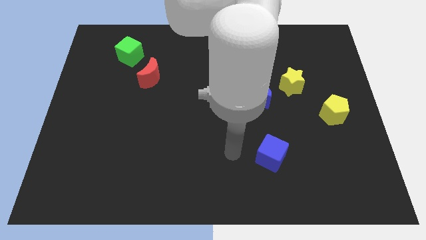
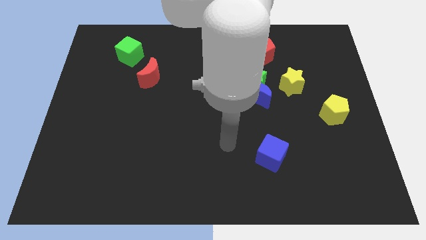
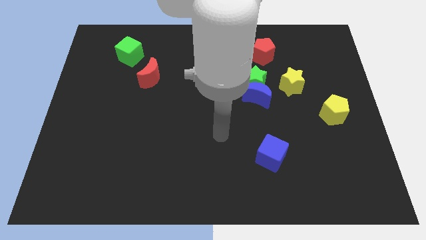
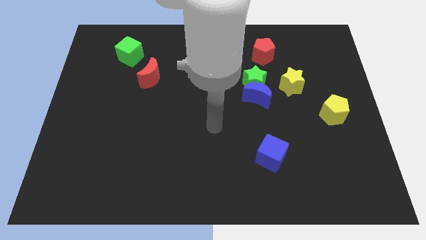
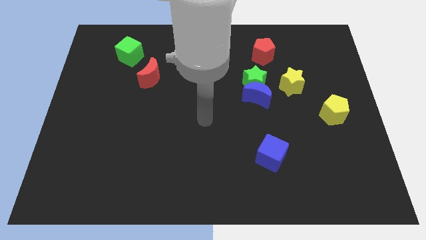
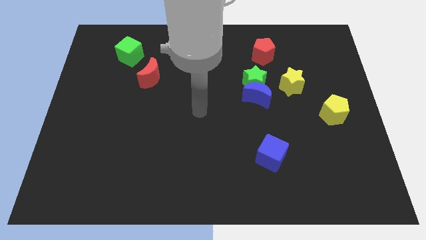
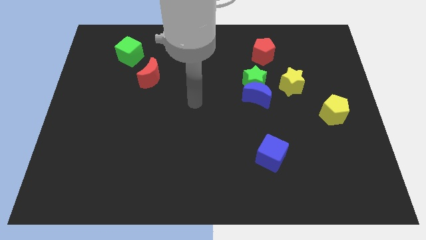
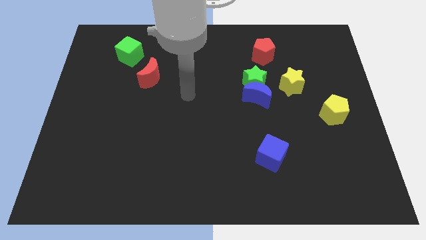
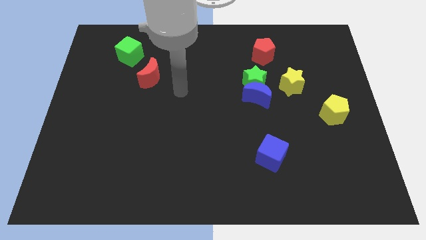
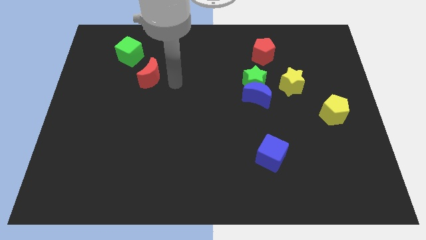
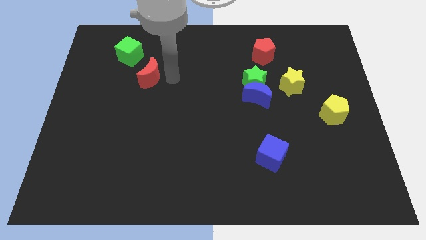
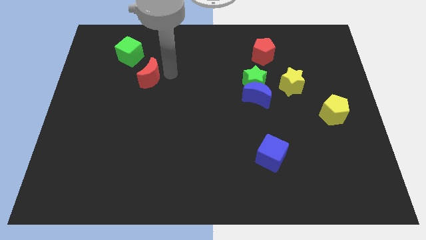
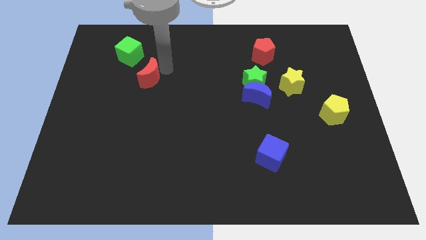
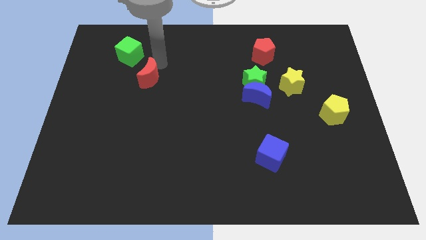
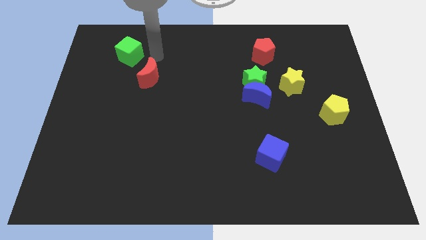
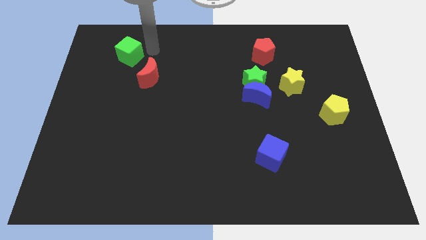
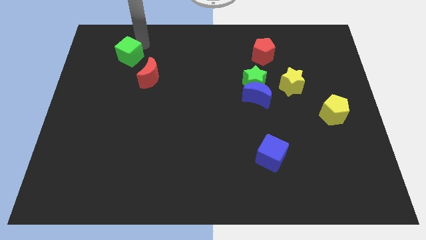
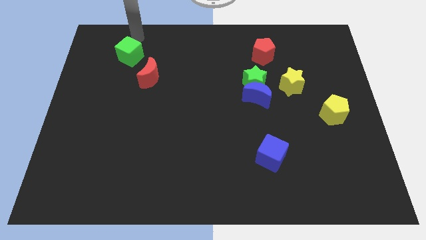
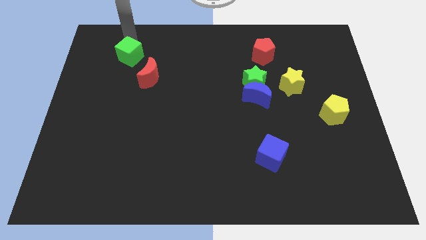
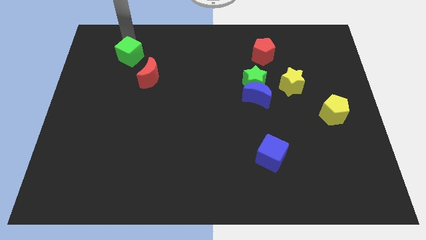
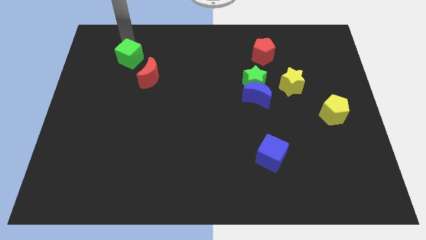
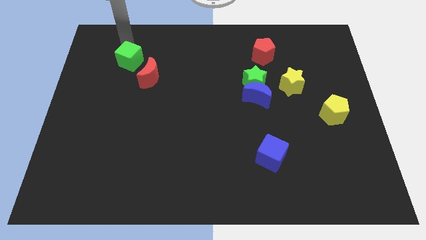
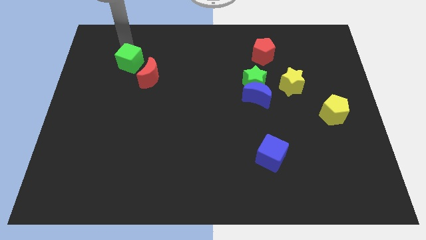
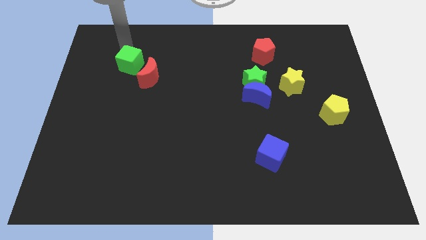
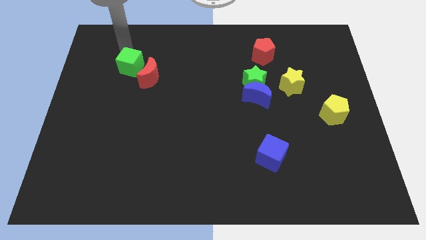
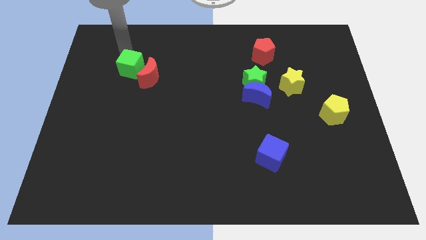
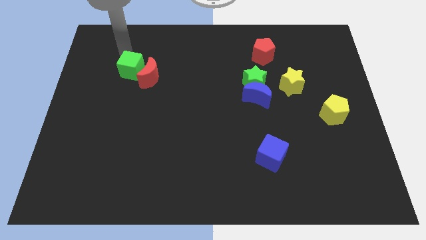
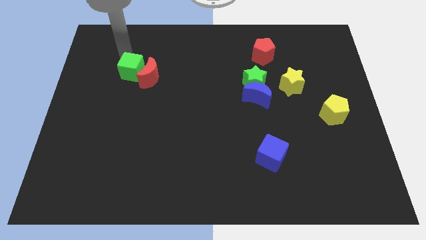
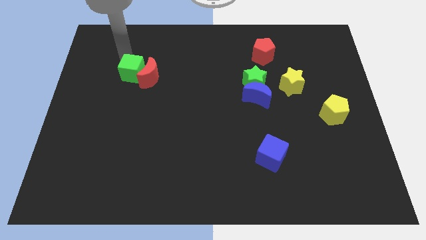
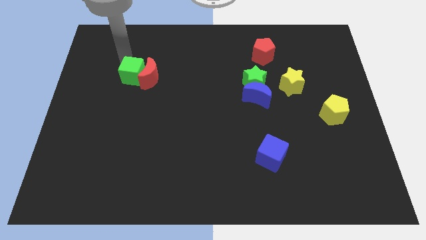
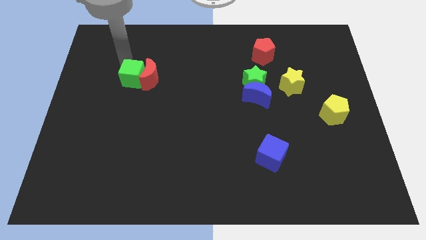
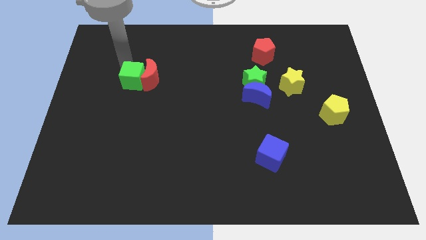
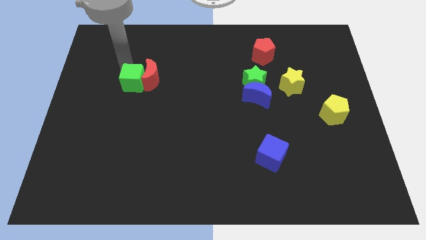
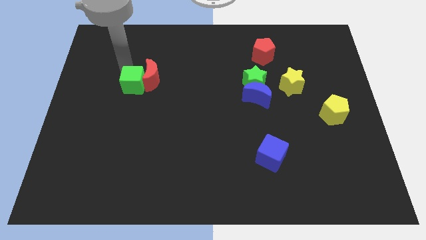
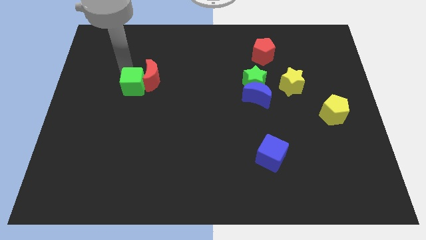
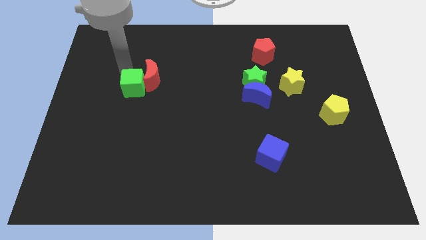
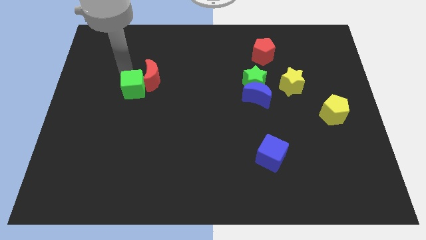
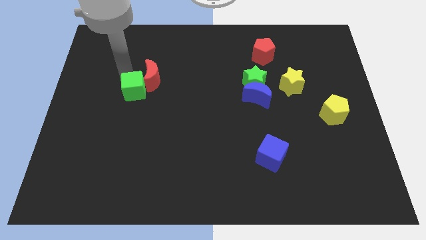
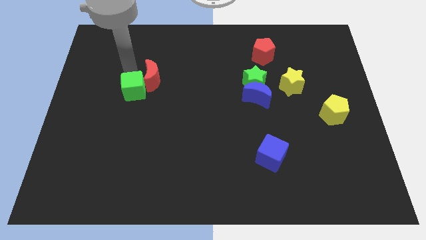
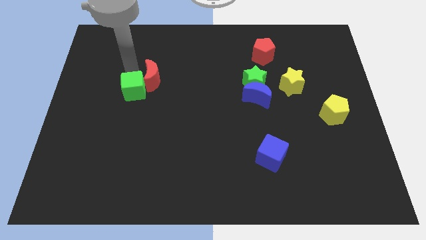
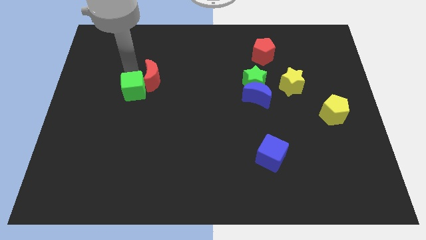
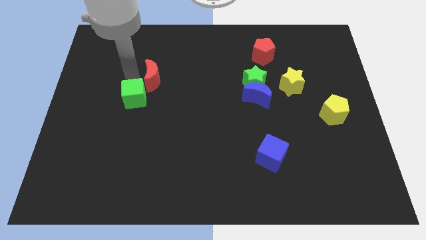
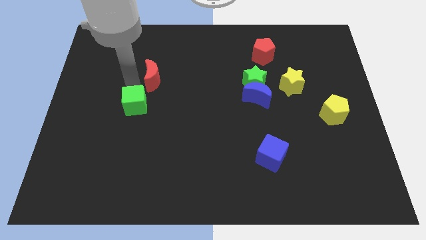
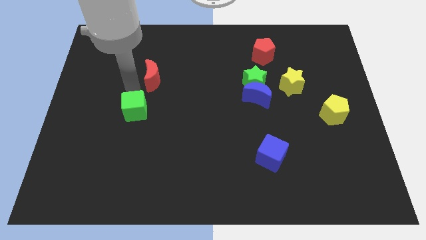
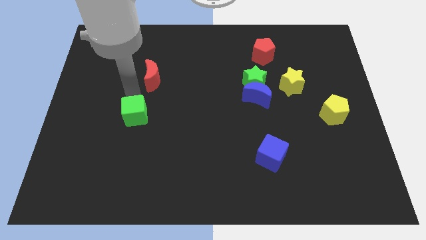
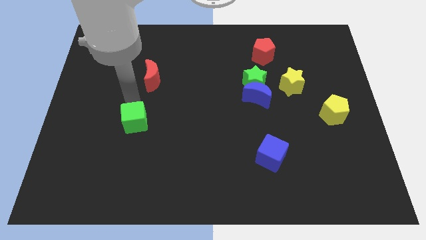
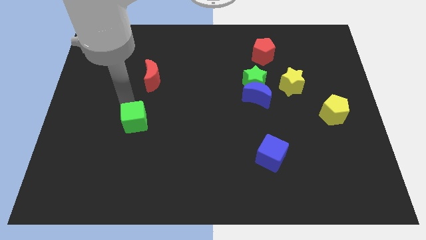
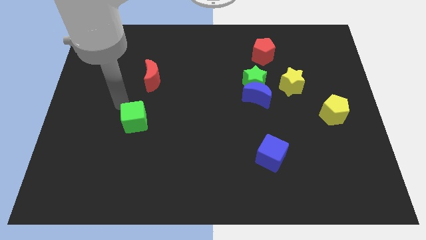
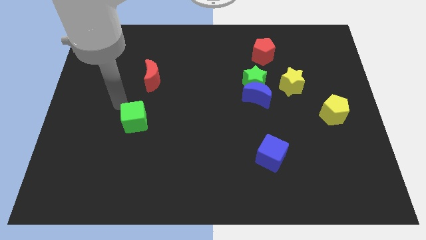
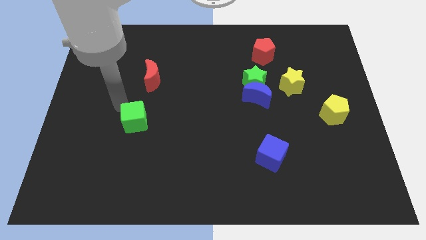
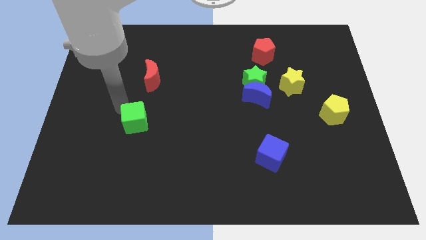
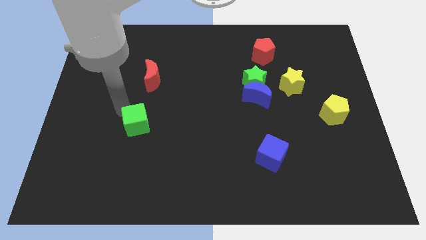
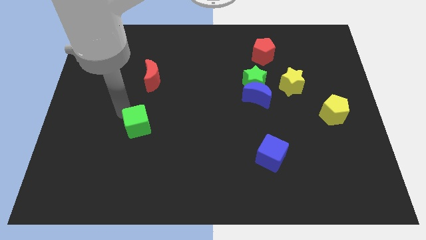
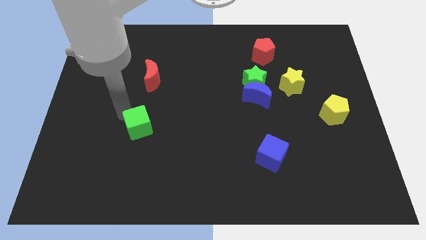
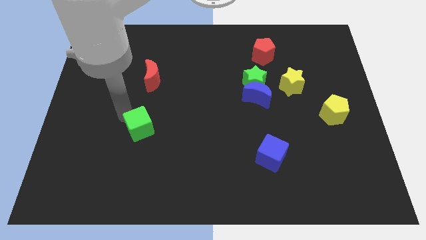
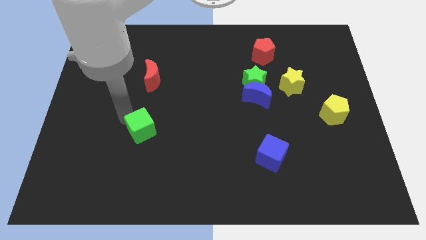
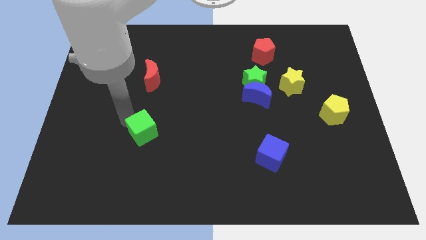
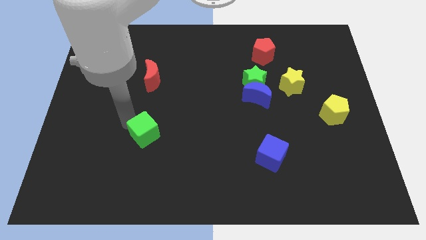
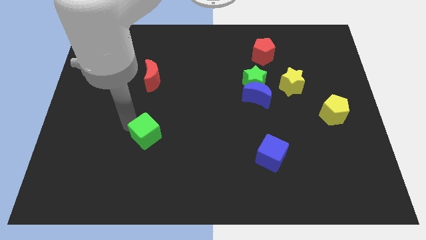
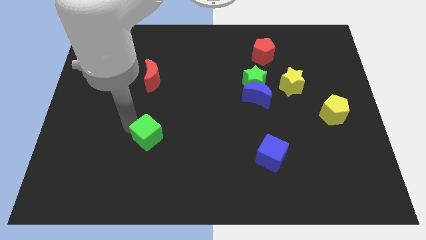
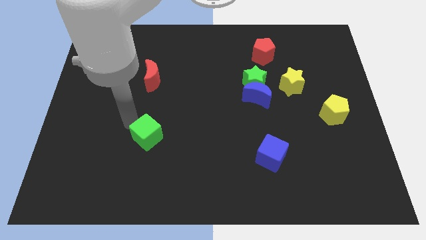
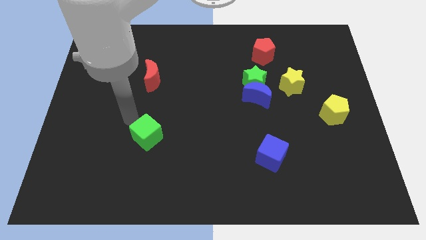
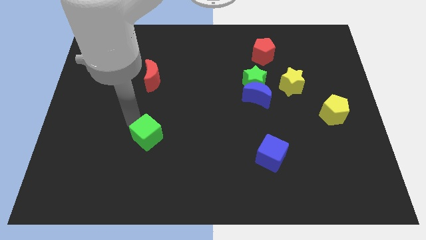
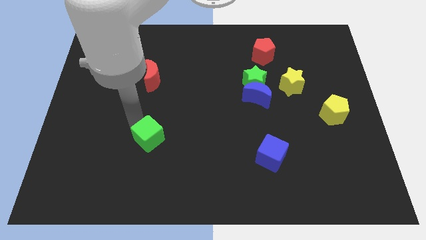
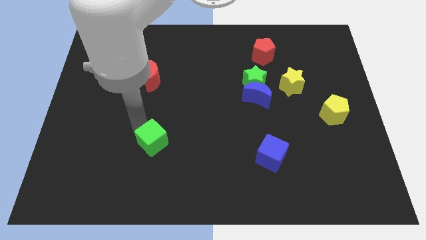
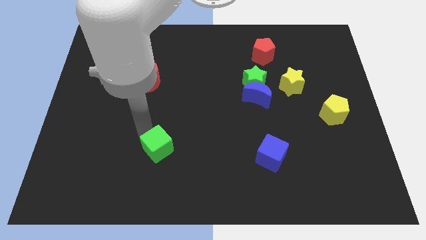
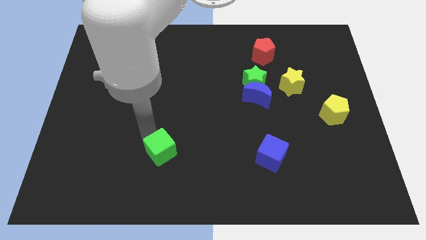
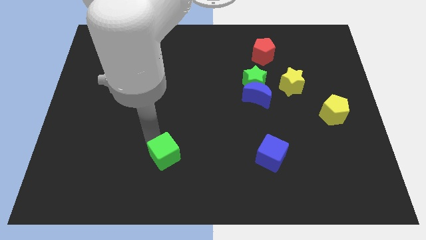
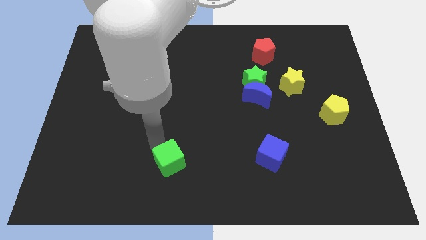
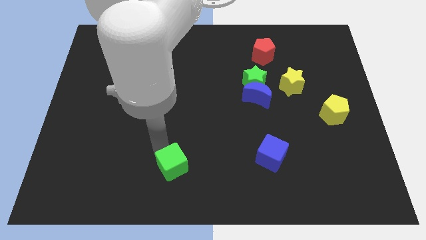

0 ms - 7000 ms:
push the green cube to the bottom side

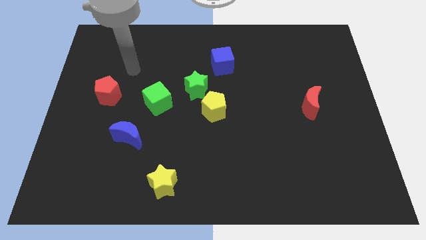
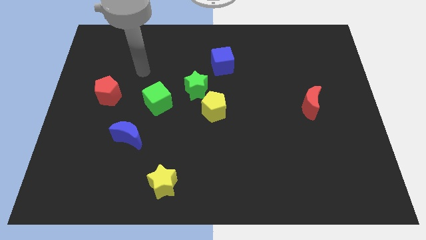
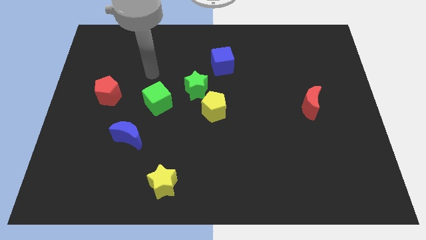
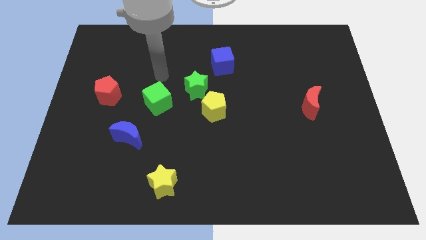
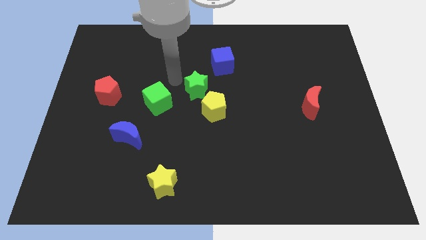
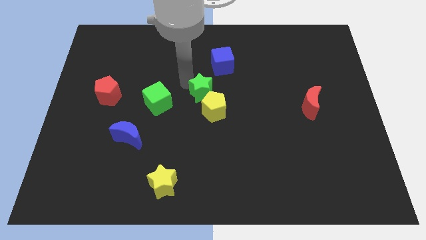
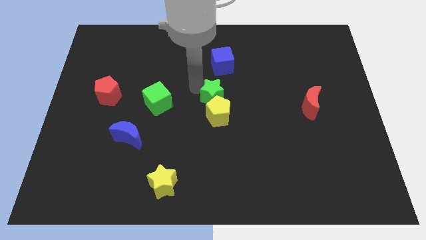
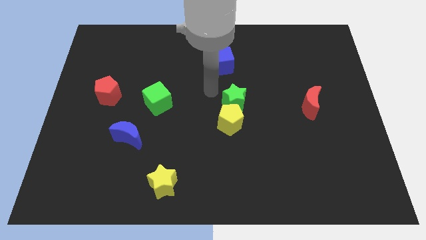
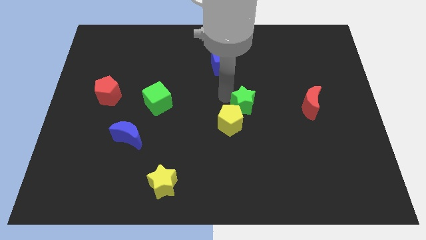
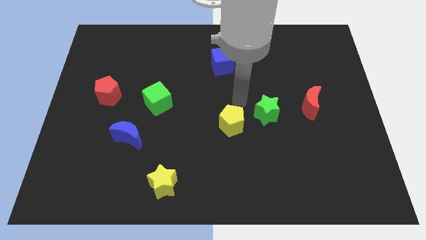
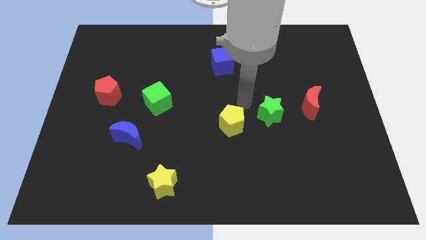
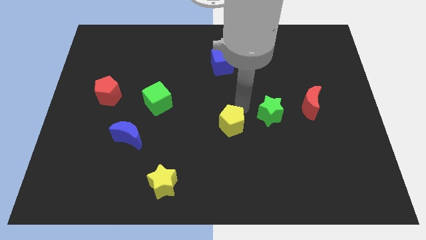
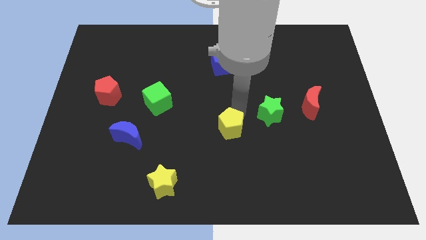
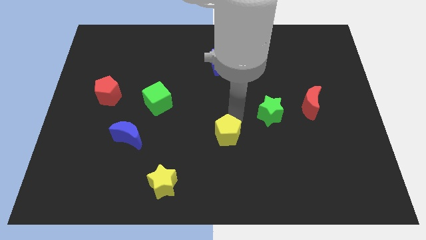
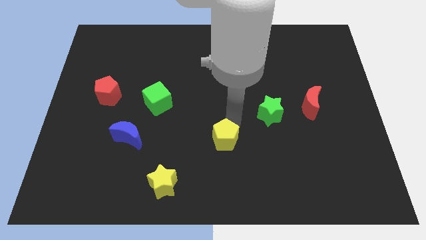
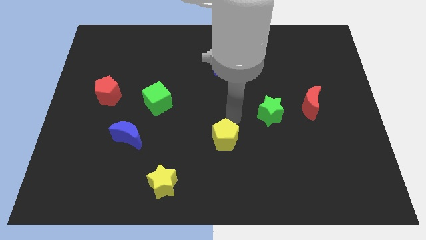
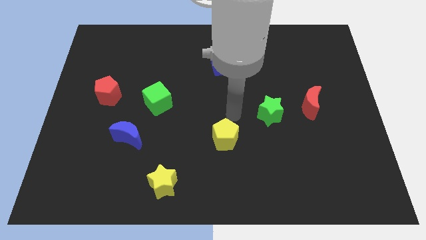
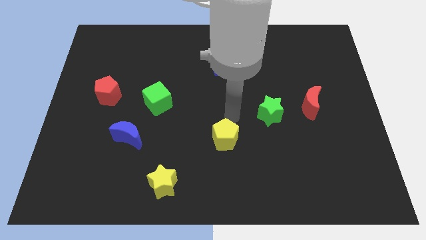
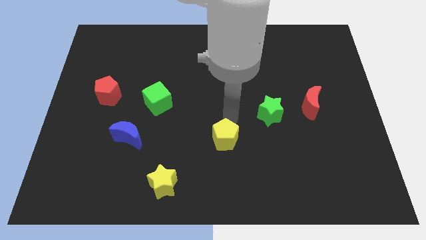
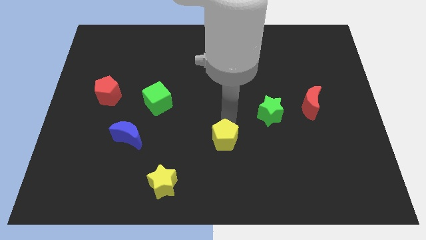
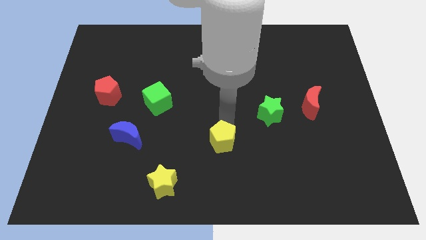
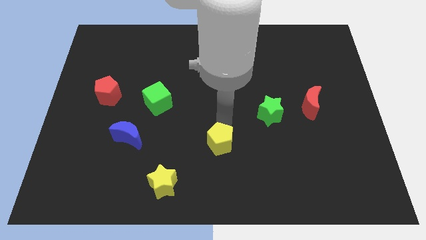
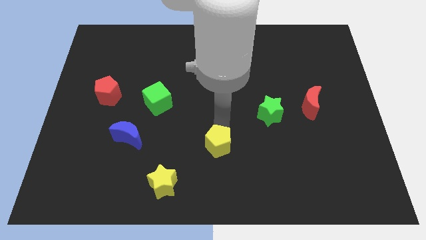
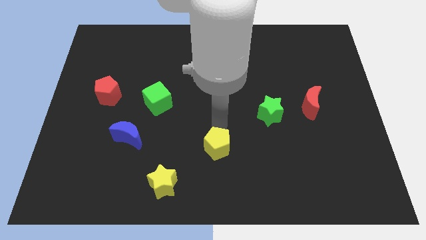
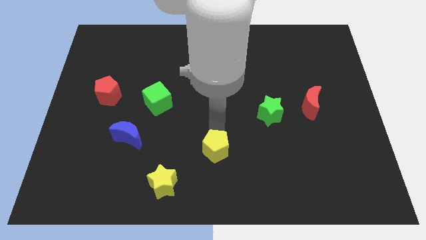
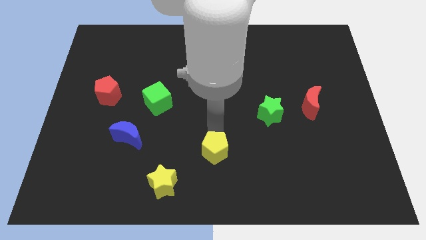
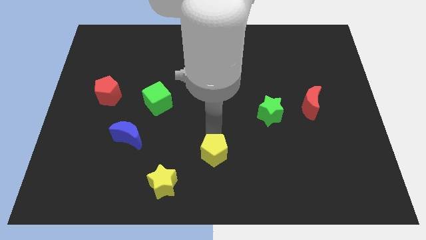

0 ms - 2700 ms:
put the yellow pentagon to the bottom side
